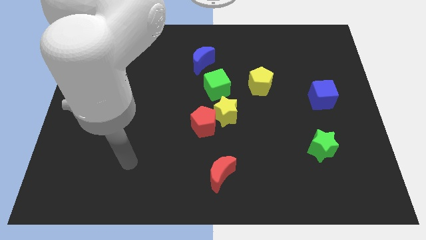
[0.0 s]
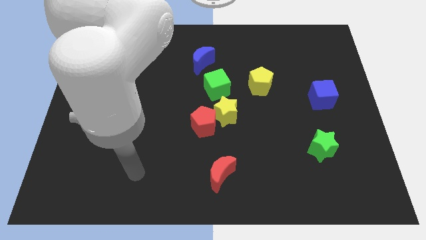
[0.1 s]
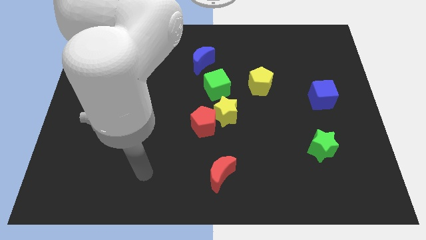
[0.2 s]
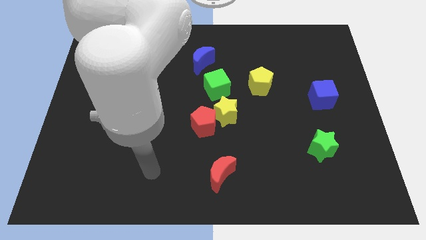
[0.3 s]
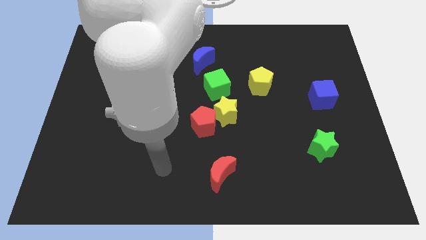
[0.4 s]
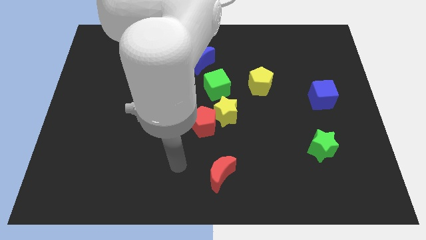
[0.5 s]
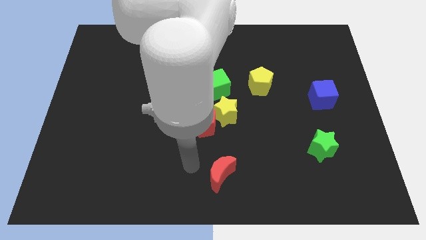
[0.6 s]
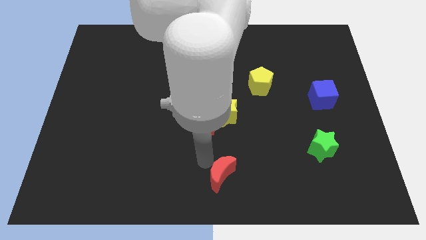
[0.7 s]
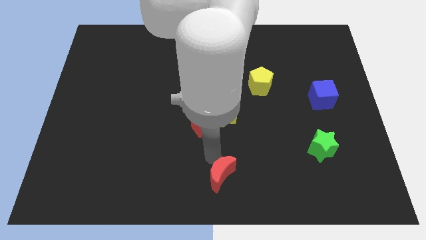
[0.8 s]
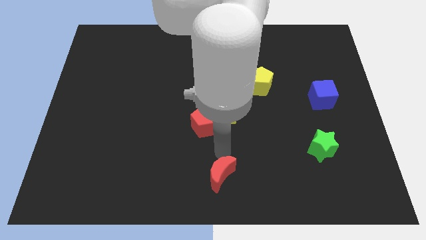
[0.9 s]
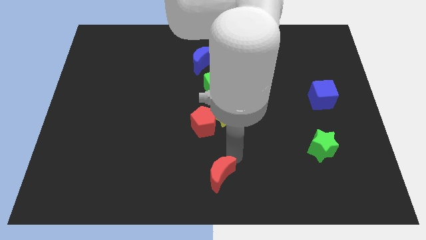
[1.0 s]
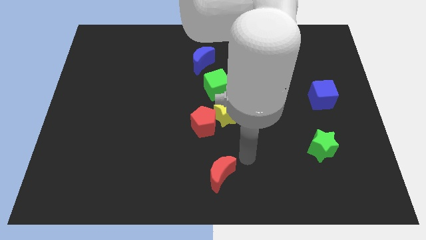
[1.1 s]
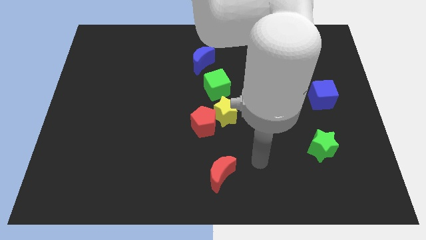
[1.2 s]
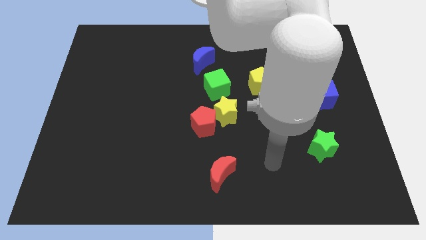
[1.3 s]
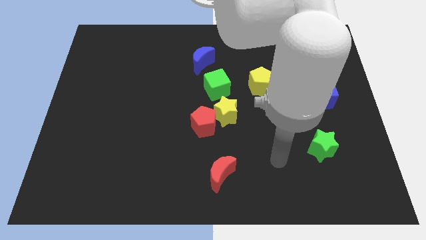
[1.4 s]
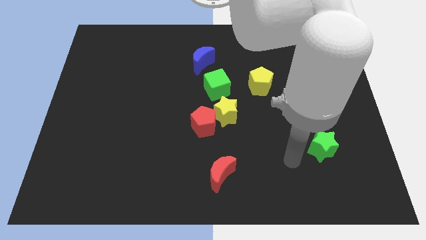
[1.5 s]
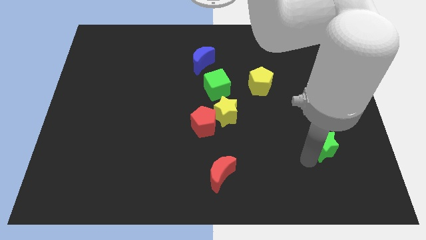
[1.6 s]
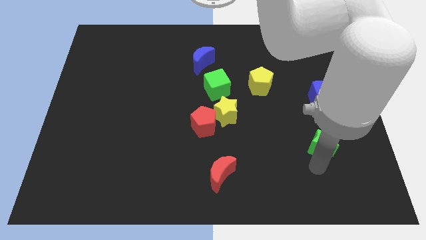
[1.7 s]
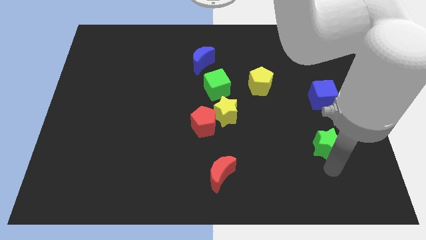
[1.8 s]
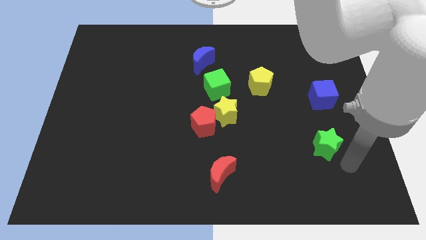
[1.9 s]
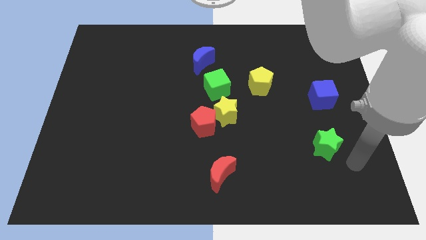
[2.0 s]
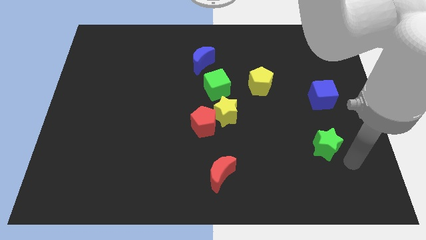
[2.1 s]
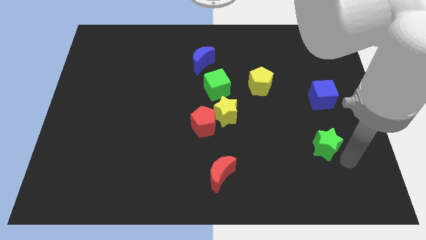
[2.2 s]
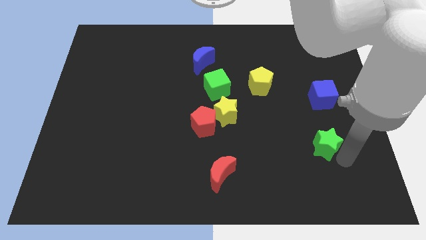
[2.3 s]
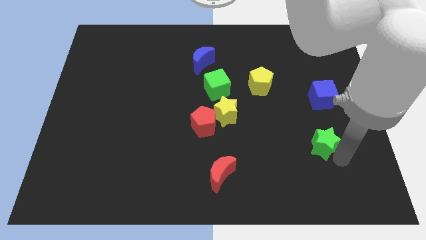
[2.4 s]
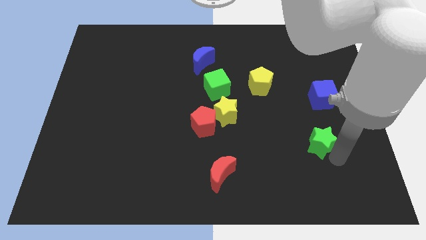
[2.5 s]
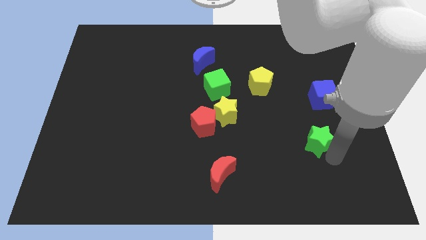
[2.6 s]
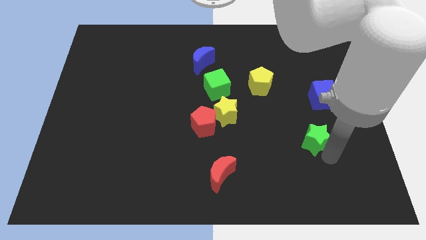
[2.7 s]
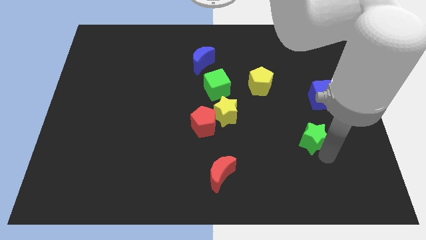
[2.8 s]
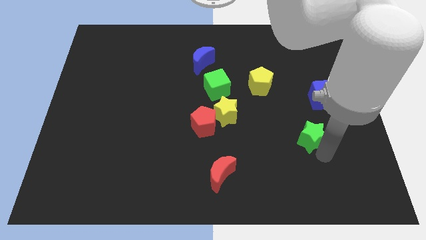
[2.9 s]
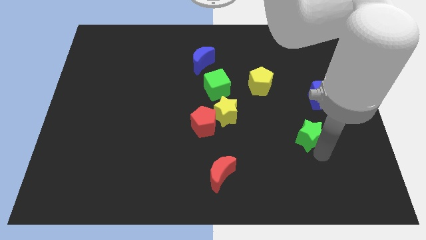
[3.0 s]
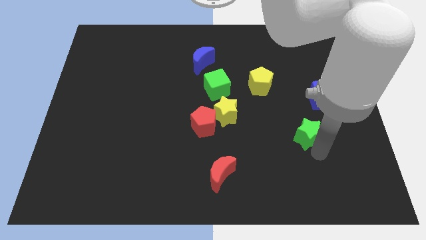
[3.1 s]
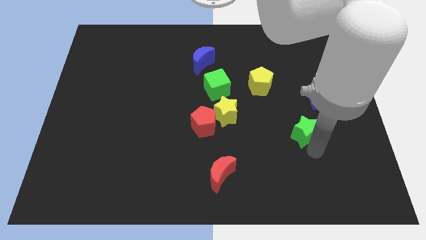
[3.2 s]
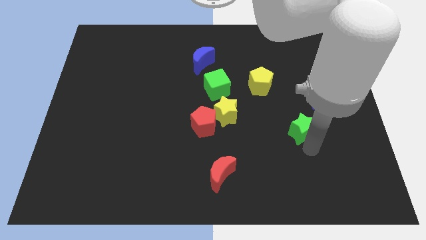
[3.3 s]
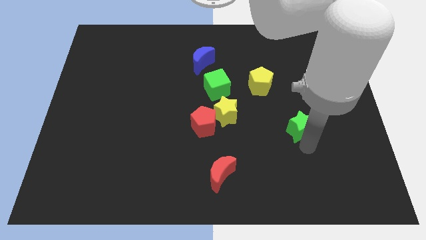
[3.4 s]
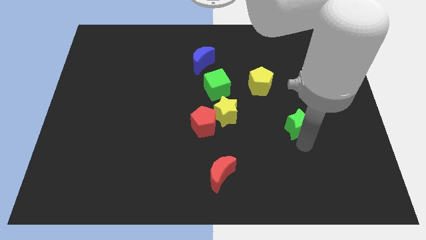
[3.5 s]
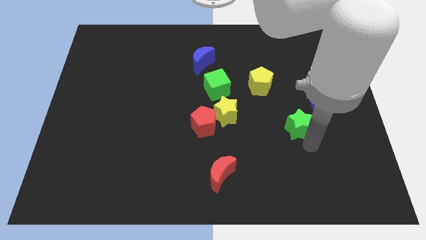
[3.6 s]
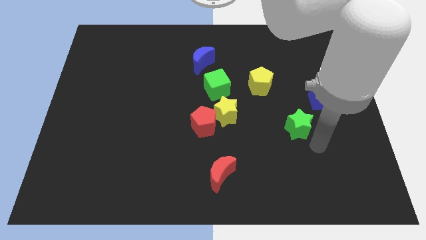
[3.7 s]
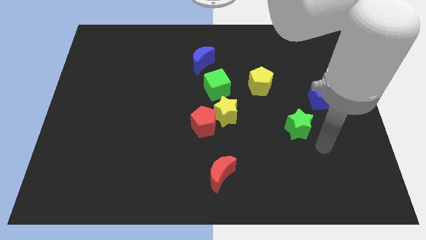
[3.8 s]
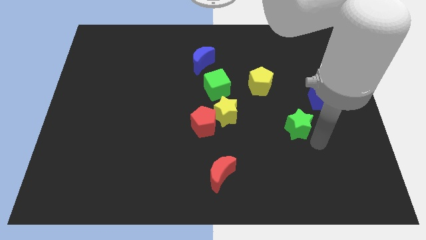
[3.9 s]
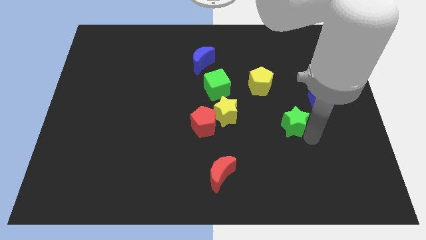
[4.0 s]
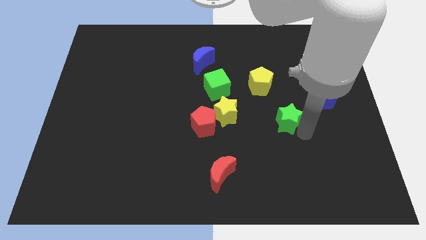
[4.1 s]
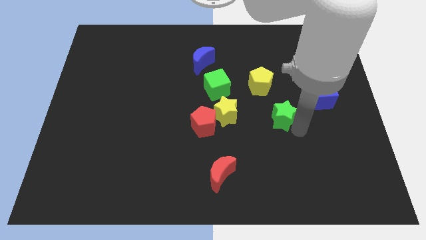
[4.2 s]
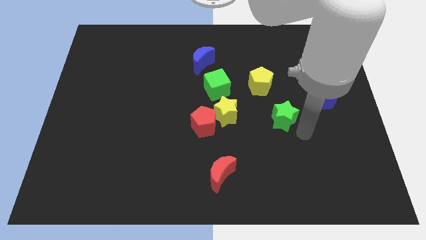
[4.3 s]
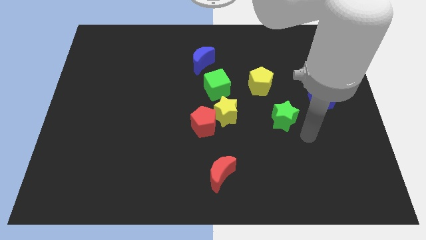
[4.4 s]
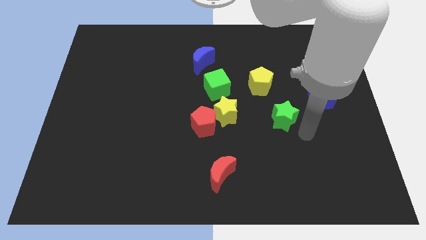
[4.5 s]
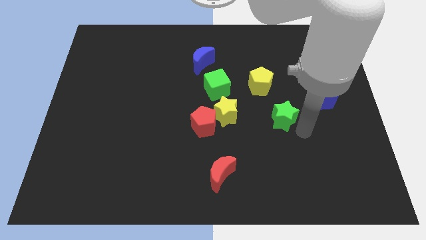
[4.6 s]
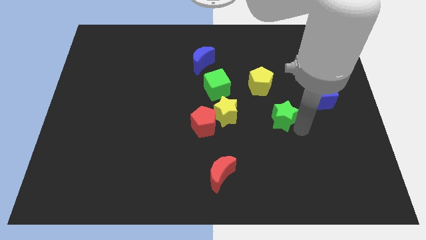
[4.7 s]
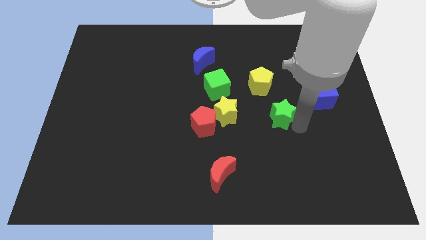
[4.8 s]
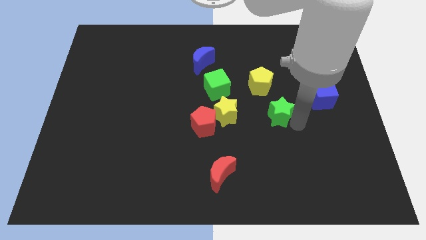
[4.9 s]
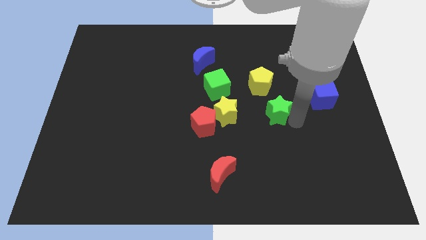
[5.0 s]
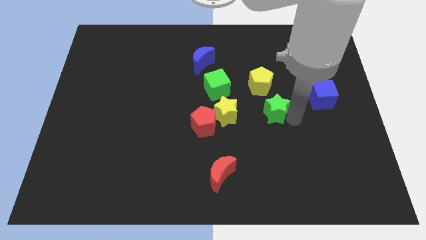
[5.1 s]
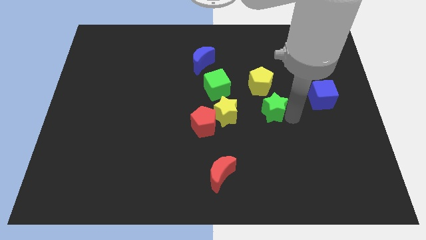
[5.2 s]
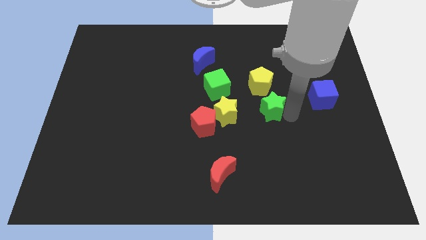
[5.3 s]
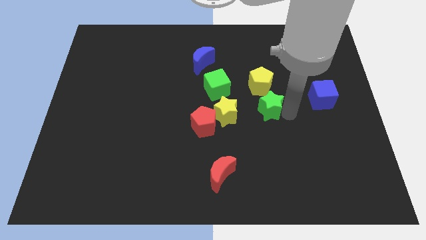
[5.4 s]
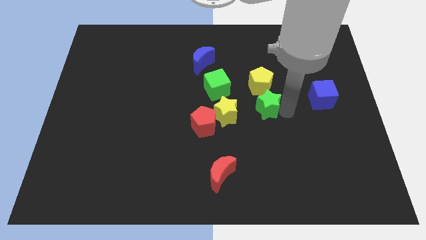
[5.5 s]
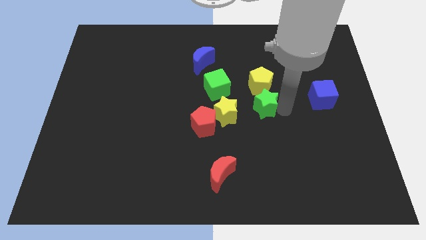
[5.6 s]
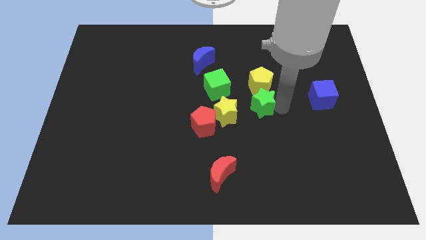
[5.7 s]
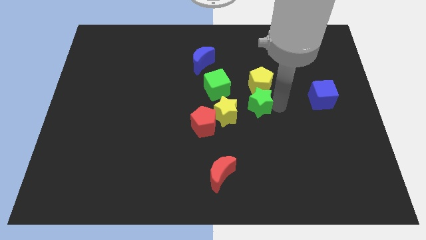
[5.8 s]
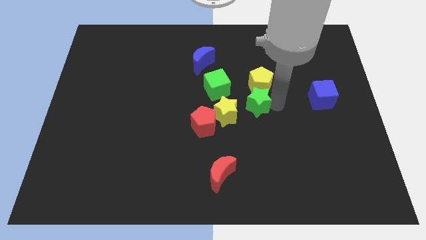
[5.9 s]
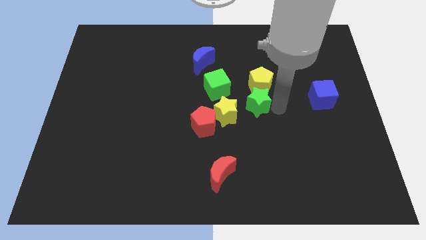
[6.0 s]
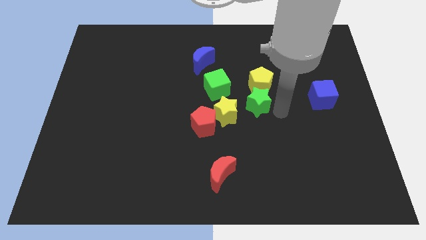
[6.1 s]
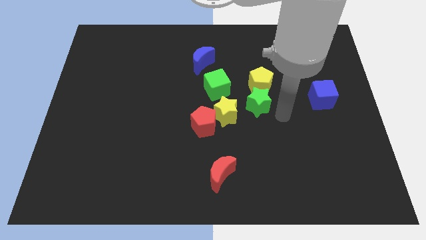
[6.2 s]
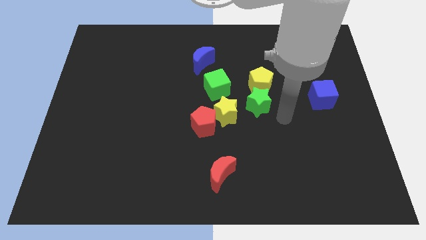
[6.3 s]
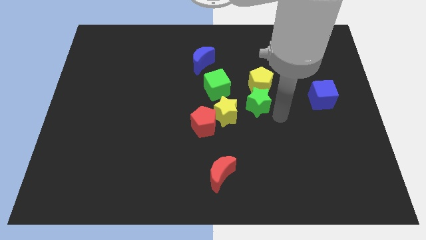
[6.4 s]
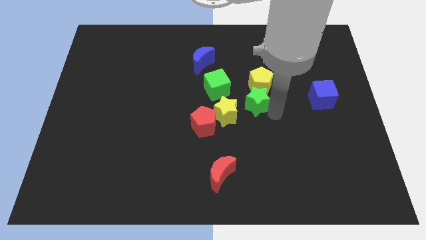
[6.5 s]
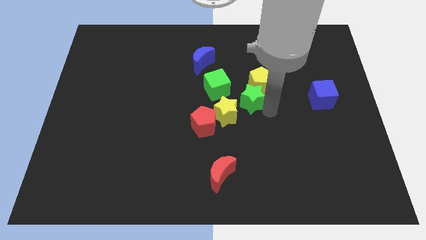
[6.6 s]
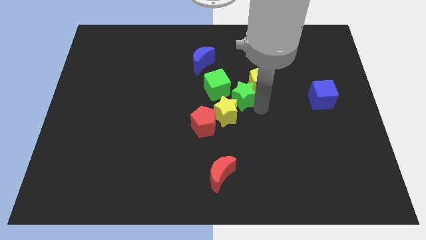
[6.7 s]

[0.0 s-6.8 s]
move the green star up and left

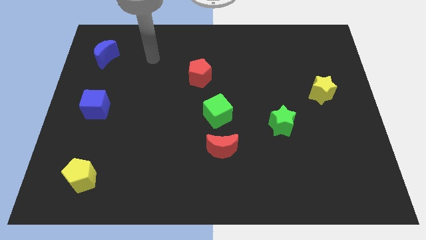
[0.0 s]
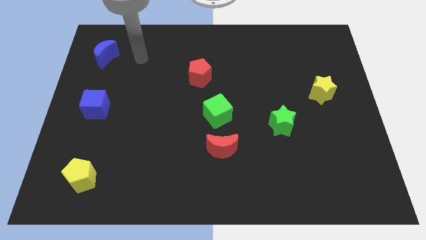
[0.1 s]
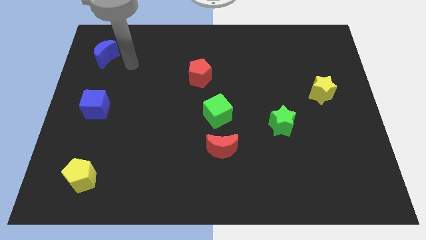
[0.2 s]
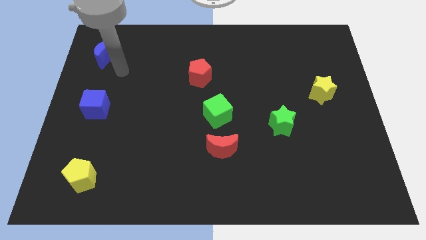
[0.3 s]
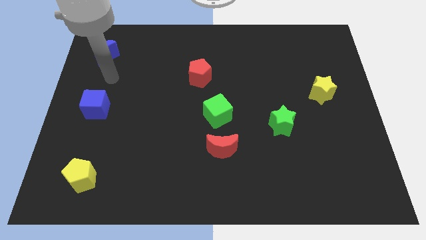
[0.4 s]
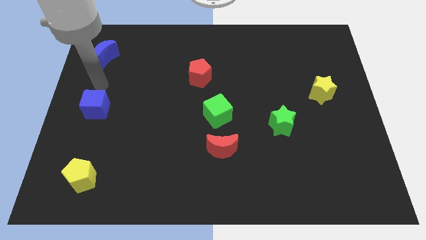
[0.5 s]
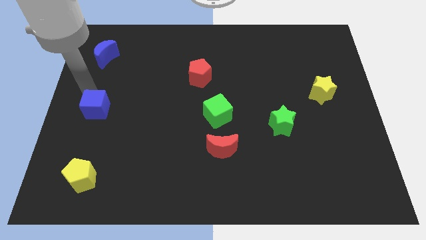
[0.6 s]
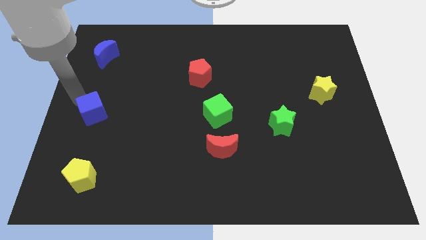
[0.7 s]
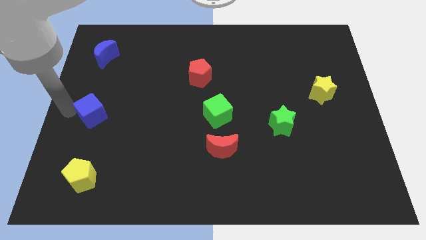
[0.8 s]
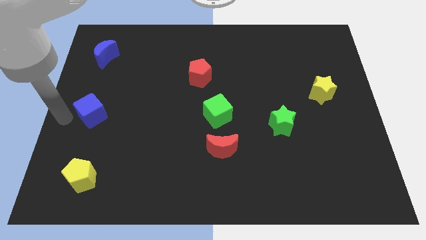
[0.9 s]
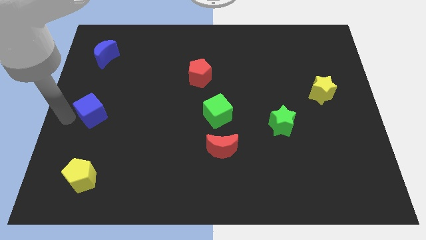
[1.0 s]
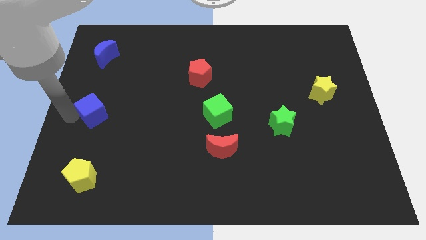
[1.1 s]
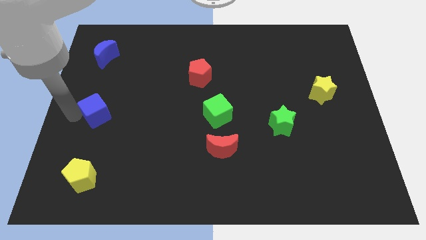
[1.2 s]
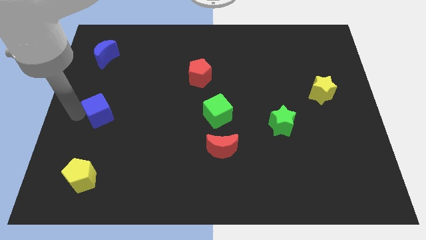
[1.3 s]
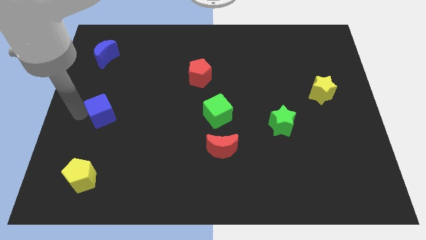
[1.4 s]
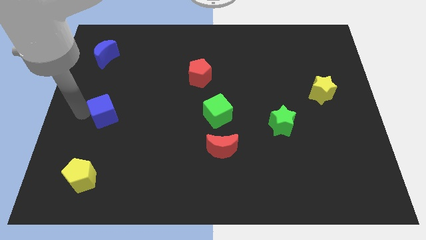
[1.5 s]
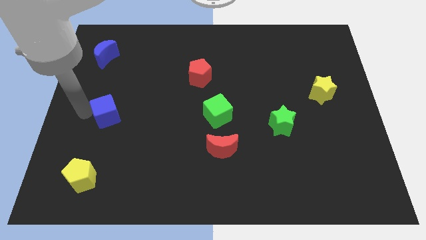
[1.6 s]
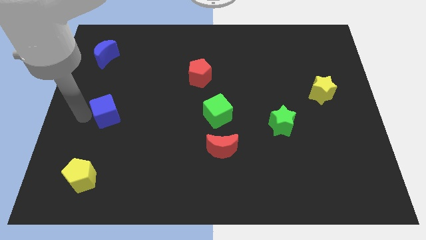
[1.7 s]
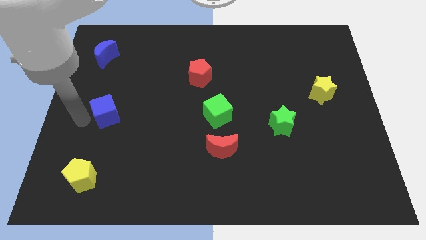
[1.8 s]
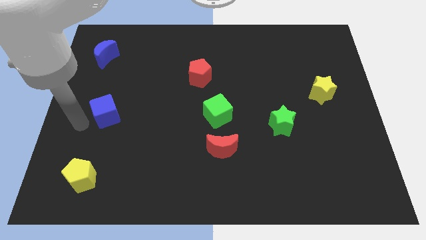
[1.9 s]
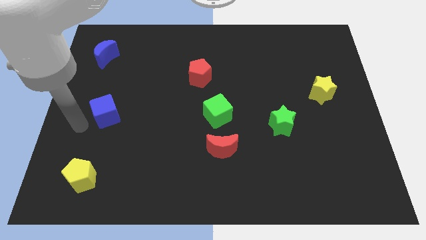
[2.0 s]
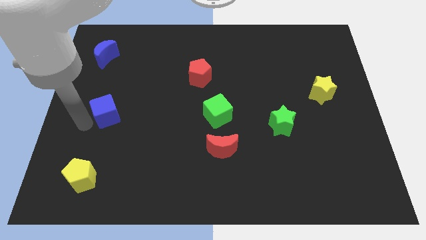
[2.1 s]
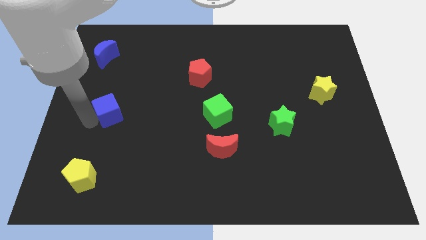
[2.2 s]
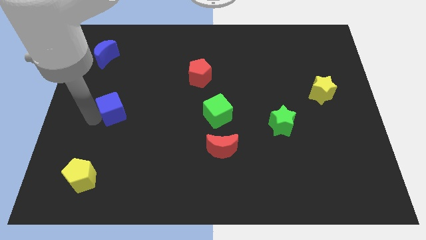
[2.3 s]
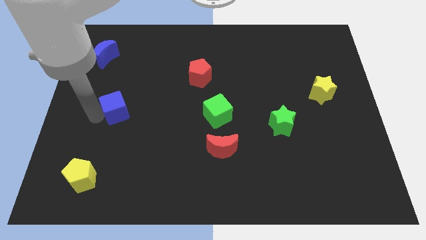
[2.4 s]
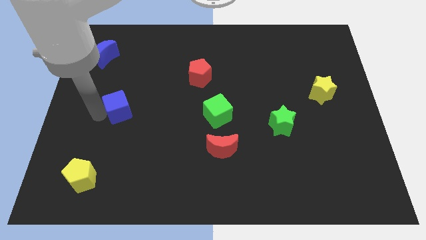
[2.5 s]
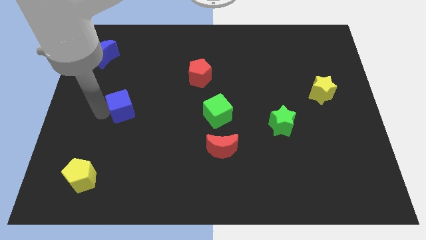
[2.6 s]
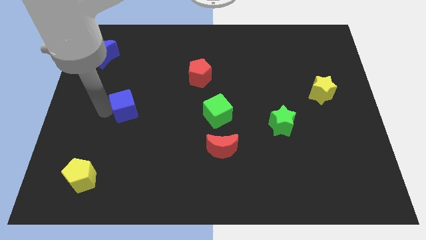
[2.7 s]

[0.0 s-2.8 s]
move the blue cube right slightly
